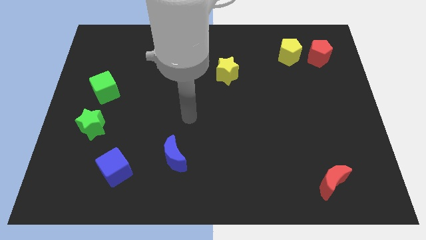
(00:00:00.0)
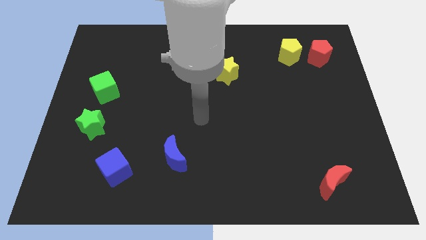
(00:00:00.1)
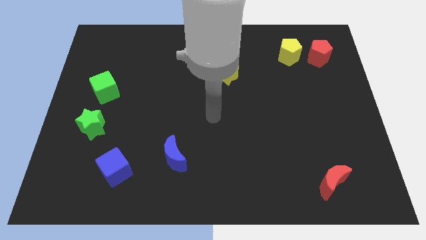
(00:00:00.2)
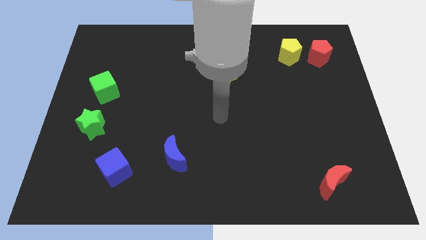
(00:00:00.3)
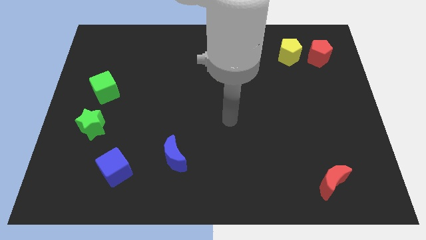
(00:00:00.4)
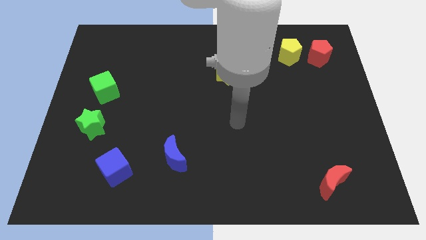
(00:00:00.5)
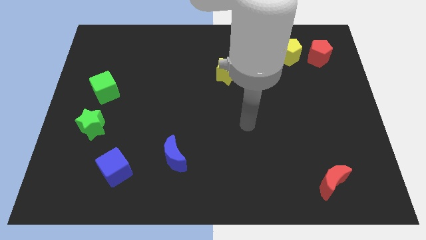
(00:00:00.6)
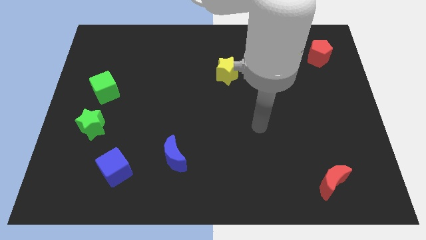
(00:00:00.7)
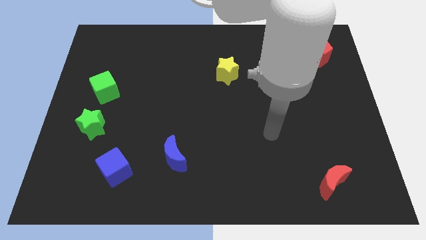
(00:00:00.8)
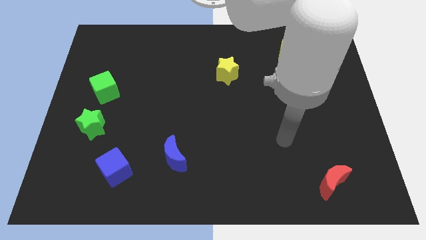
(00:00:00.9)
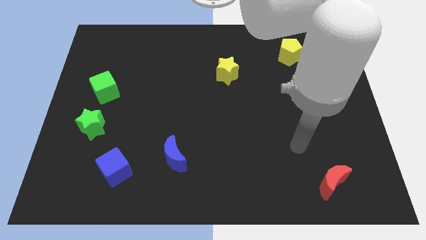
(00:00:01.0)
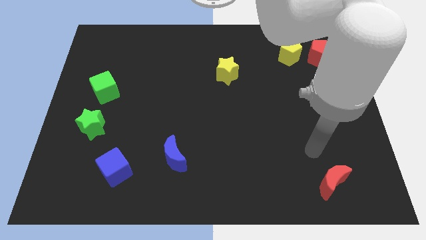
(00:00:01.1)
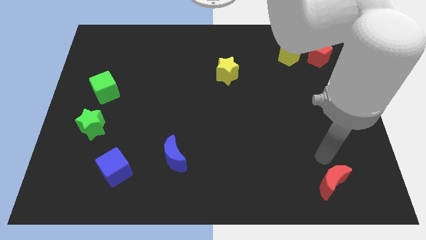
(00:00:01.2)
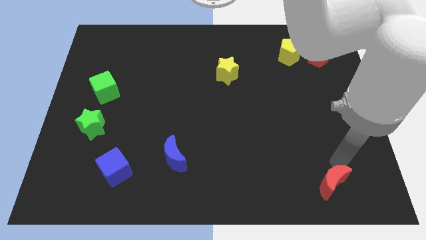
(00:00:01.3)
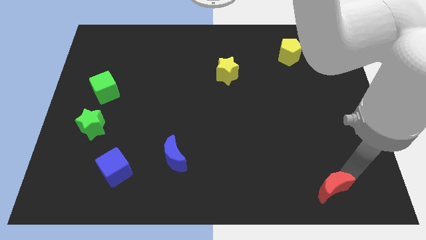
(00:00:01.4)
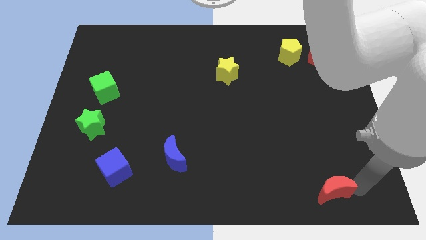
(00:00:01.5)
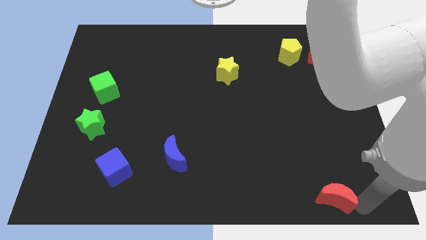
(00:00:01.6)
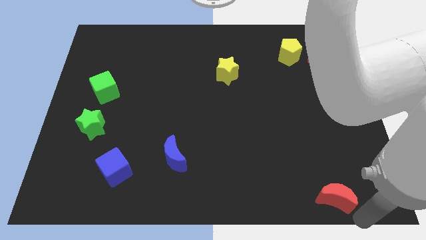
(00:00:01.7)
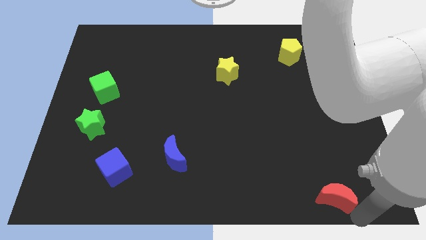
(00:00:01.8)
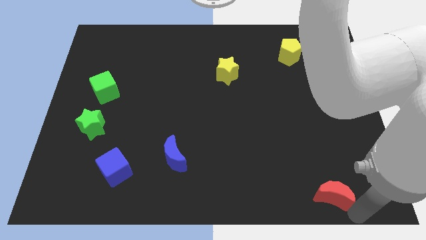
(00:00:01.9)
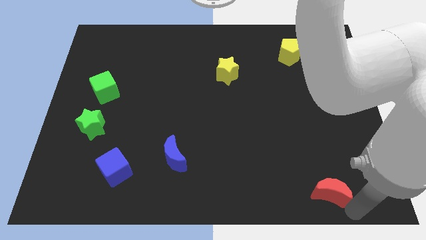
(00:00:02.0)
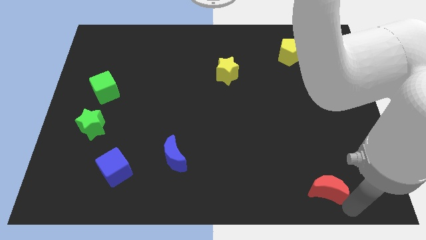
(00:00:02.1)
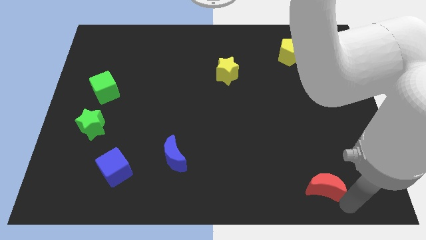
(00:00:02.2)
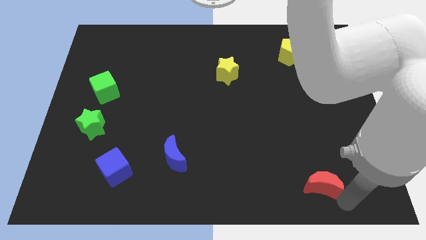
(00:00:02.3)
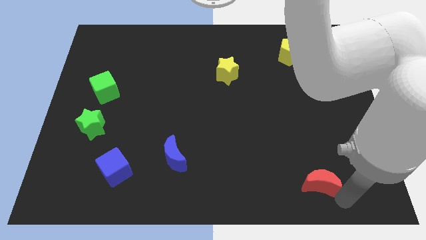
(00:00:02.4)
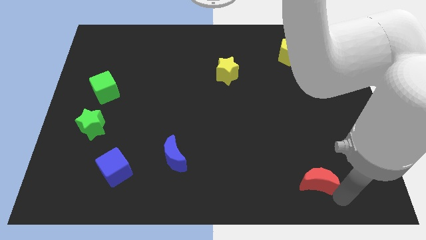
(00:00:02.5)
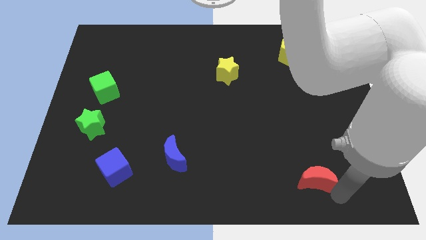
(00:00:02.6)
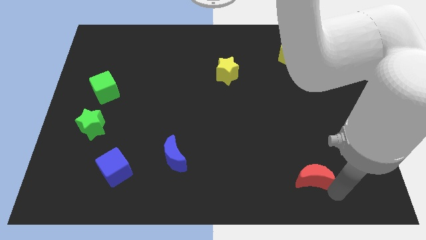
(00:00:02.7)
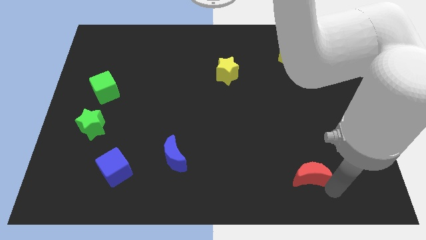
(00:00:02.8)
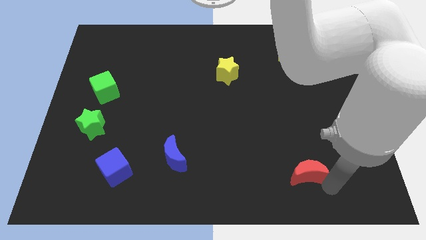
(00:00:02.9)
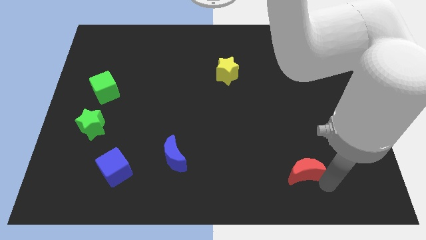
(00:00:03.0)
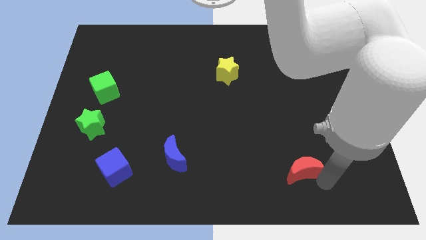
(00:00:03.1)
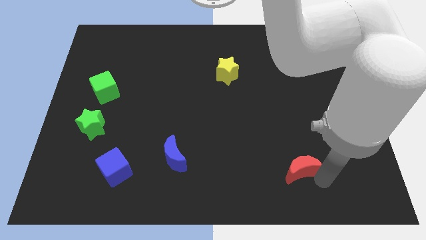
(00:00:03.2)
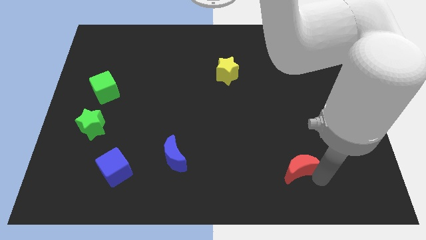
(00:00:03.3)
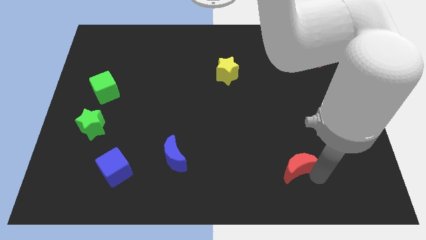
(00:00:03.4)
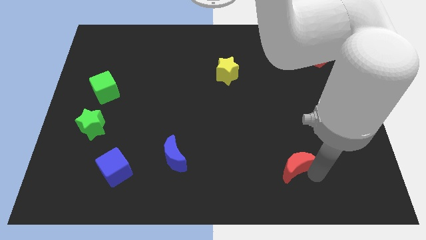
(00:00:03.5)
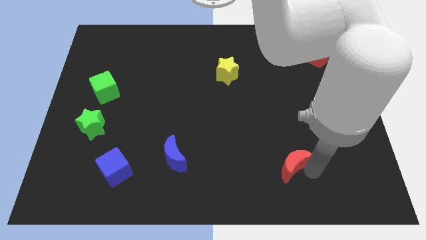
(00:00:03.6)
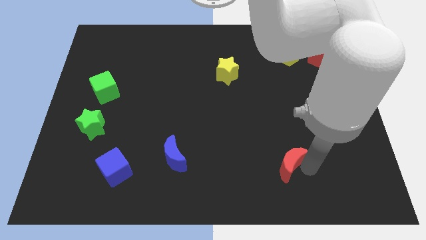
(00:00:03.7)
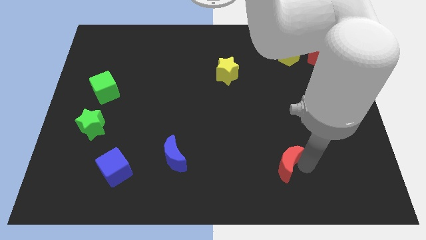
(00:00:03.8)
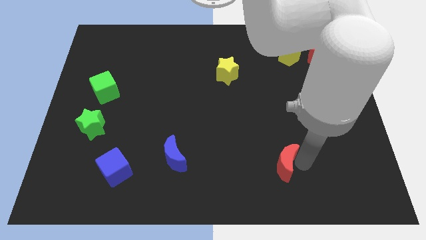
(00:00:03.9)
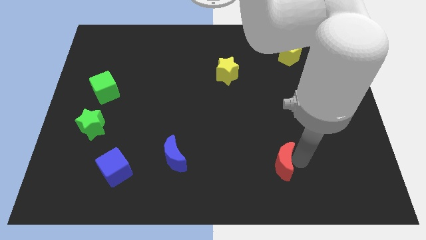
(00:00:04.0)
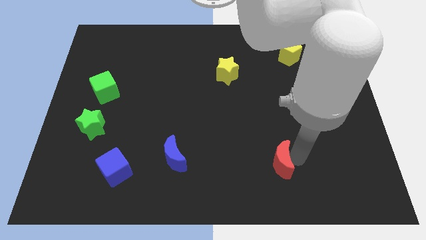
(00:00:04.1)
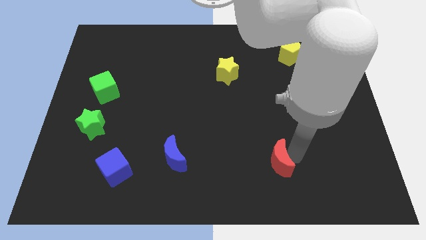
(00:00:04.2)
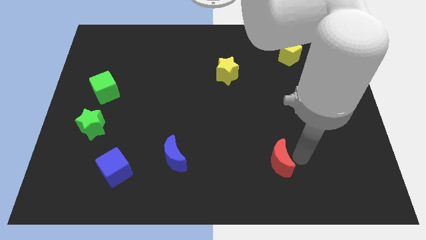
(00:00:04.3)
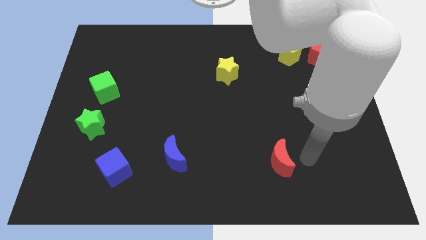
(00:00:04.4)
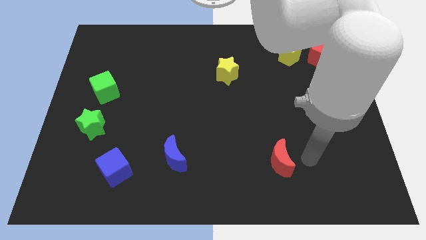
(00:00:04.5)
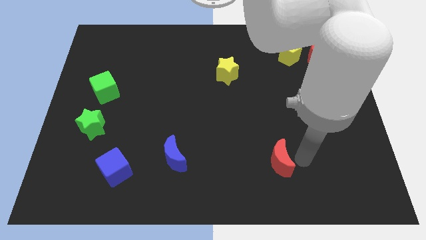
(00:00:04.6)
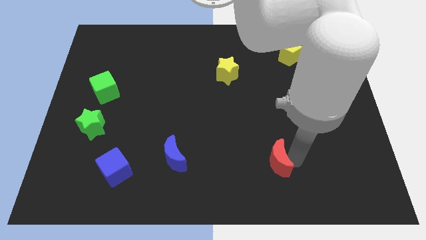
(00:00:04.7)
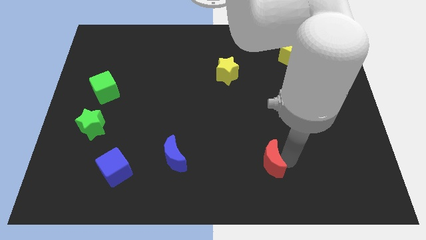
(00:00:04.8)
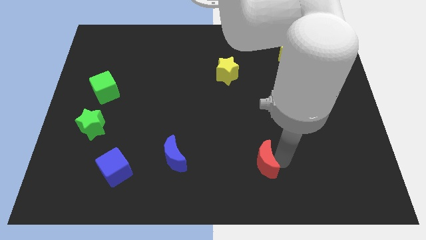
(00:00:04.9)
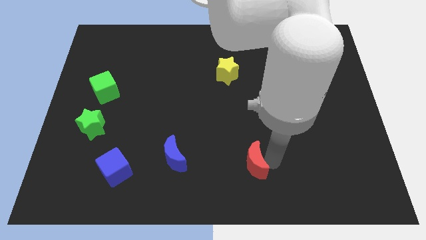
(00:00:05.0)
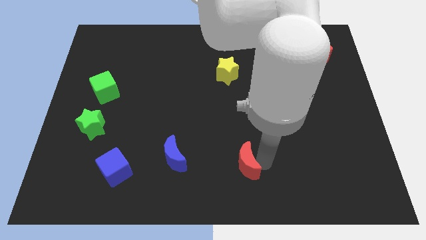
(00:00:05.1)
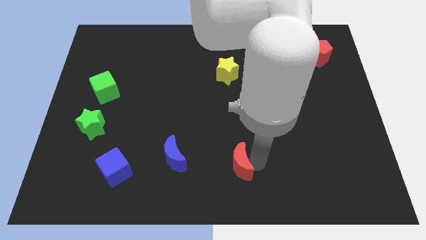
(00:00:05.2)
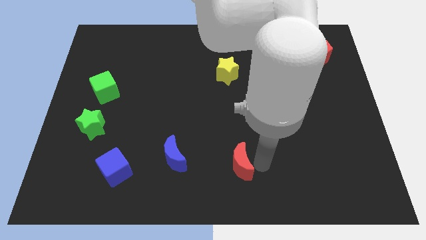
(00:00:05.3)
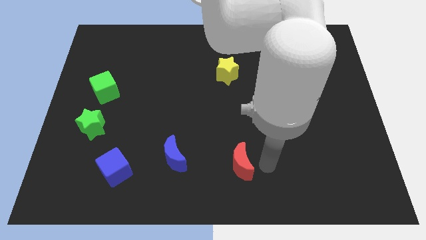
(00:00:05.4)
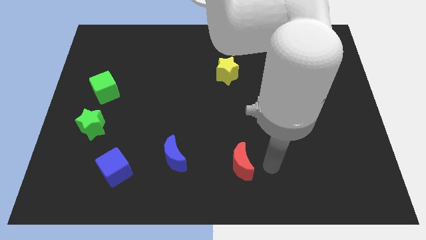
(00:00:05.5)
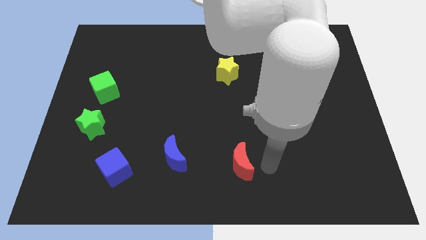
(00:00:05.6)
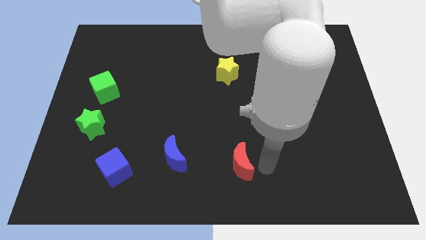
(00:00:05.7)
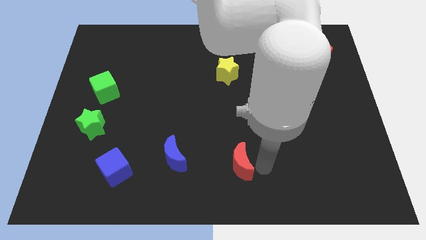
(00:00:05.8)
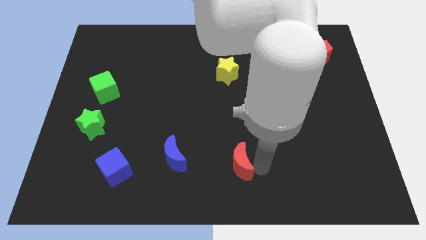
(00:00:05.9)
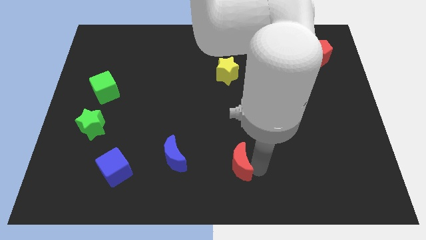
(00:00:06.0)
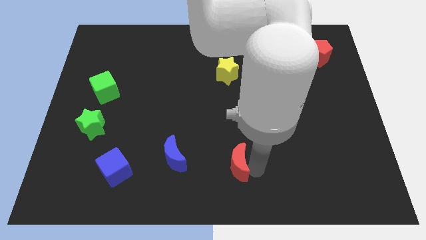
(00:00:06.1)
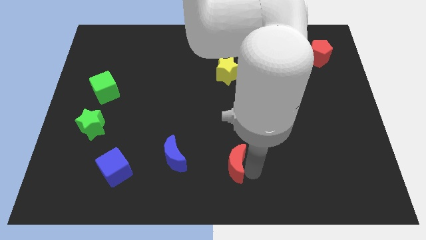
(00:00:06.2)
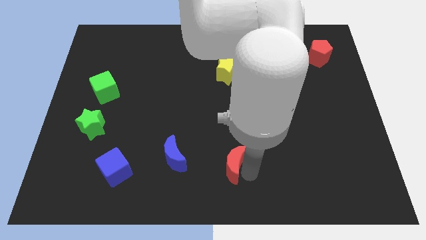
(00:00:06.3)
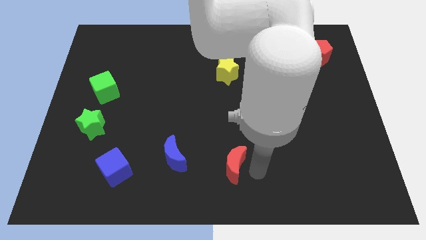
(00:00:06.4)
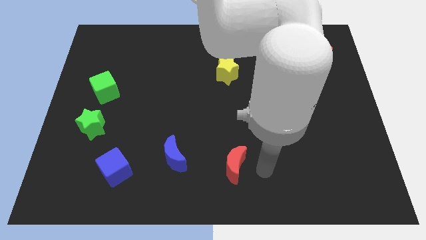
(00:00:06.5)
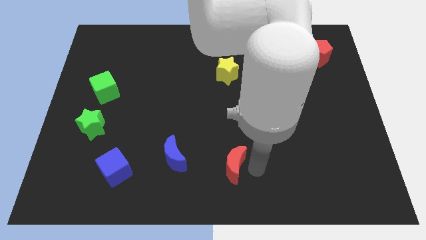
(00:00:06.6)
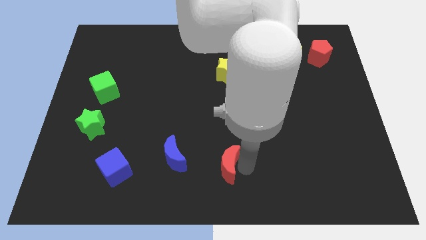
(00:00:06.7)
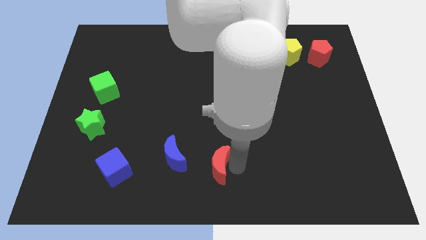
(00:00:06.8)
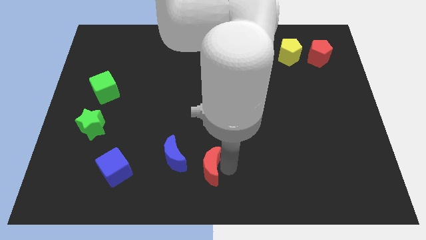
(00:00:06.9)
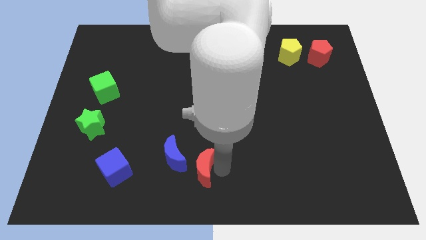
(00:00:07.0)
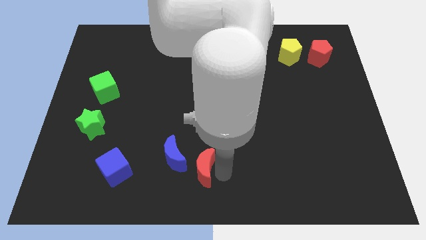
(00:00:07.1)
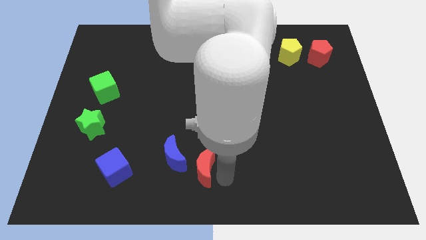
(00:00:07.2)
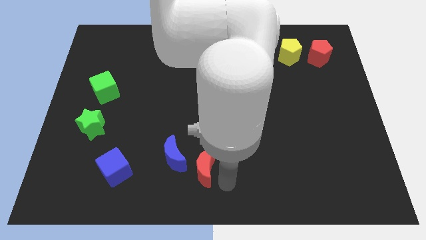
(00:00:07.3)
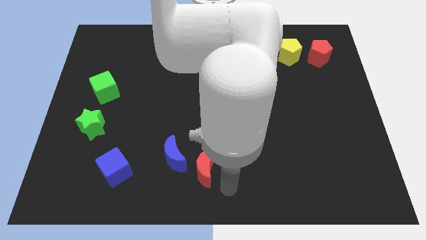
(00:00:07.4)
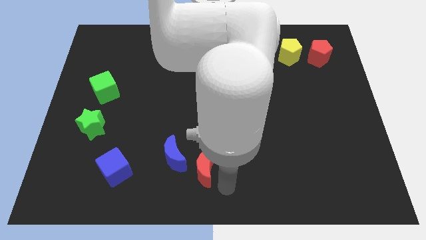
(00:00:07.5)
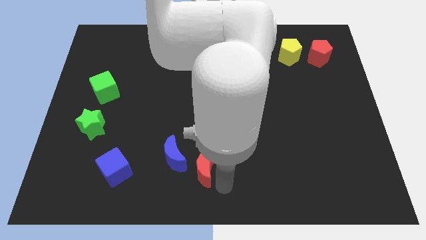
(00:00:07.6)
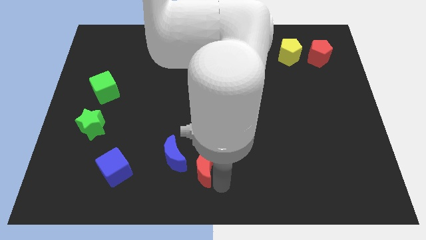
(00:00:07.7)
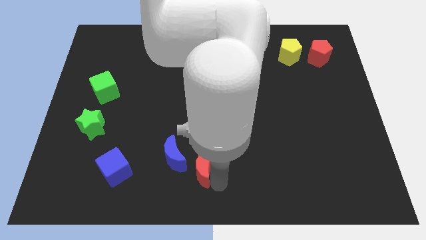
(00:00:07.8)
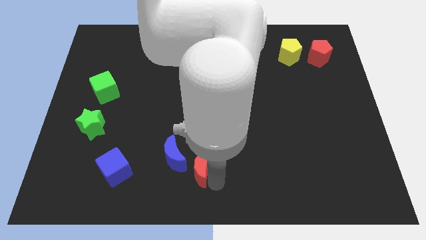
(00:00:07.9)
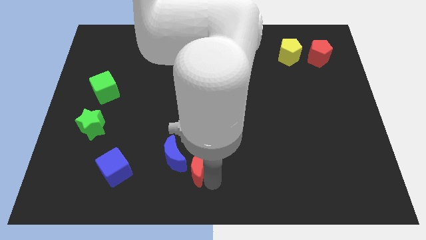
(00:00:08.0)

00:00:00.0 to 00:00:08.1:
put the red moon next to the blue moon
